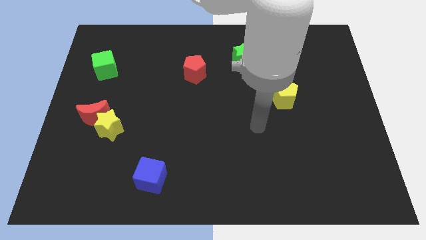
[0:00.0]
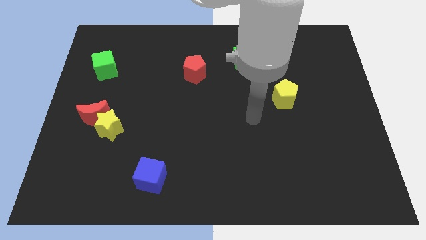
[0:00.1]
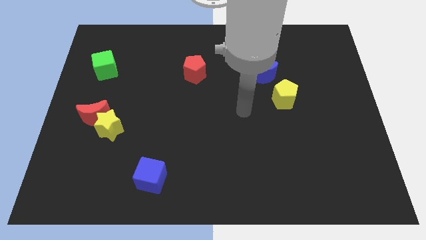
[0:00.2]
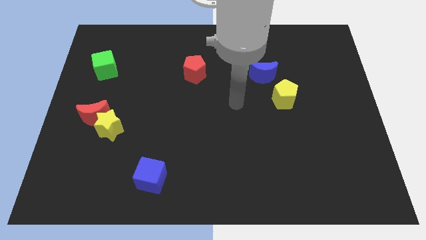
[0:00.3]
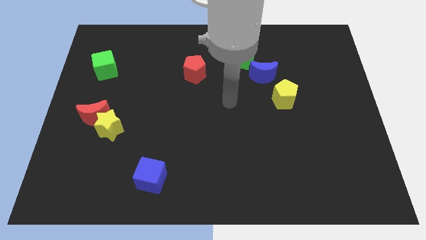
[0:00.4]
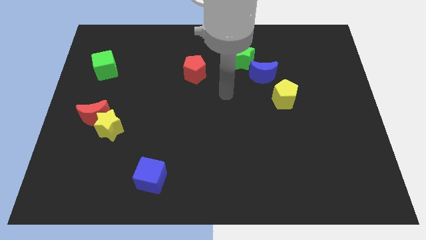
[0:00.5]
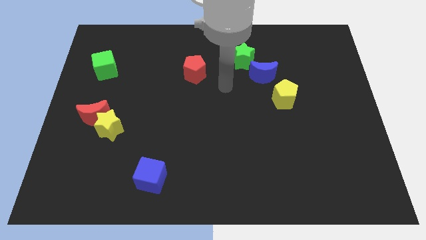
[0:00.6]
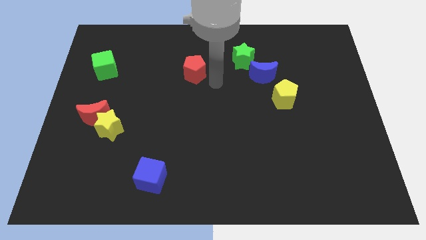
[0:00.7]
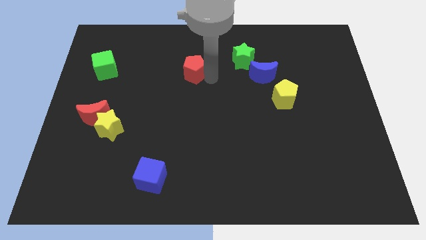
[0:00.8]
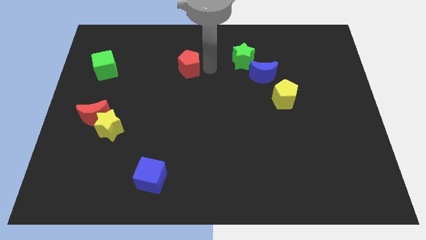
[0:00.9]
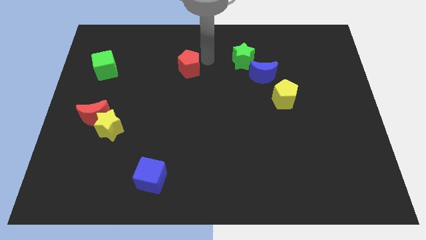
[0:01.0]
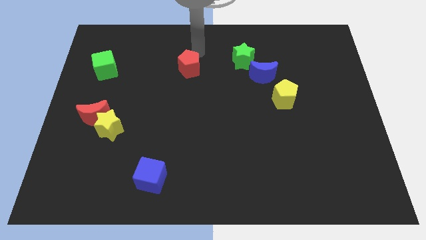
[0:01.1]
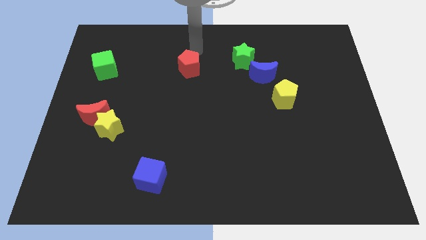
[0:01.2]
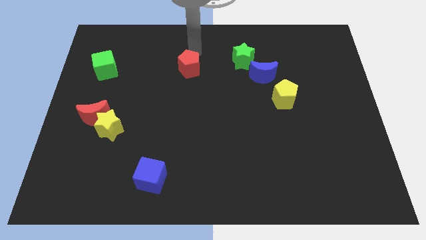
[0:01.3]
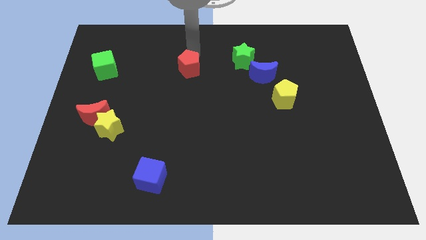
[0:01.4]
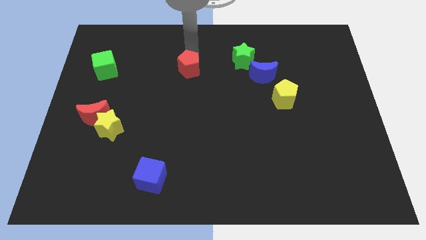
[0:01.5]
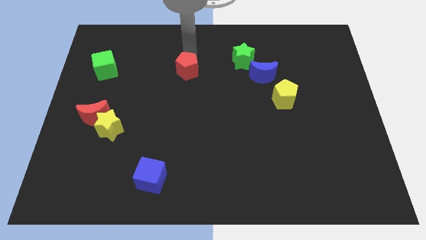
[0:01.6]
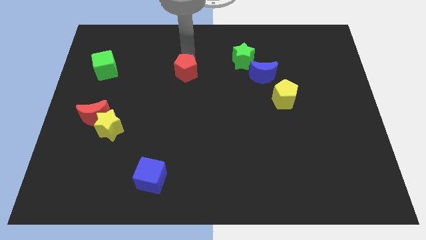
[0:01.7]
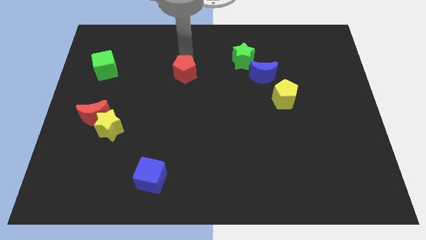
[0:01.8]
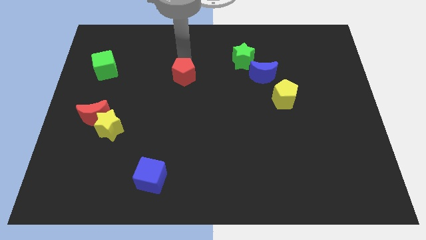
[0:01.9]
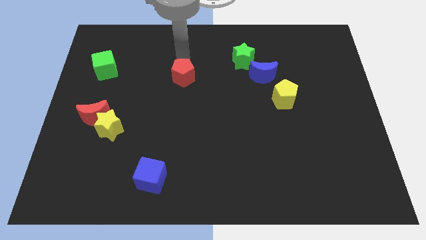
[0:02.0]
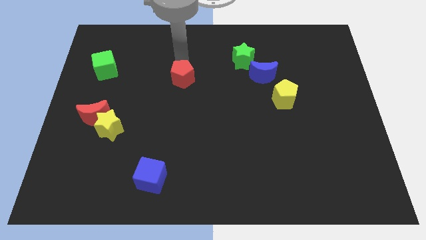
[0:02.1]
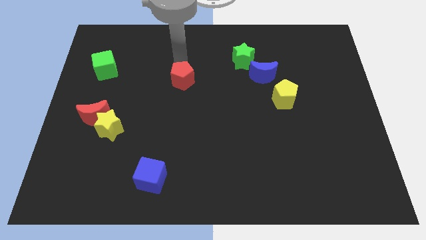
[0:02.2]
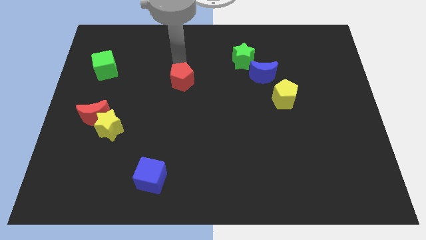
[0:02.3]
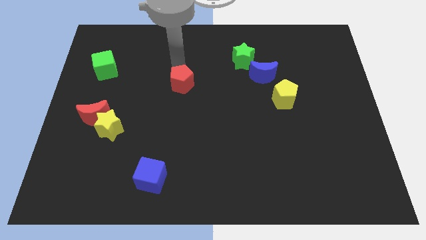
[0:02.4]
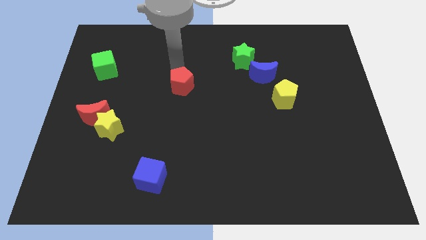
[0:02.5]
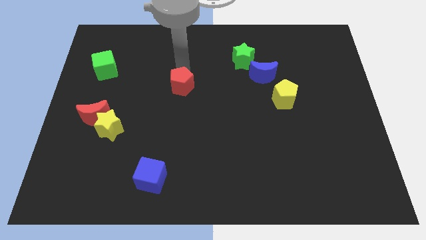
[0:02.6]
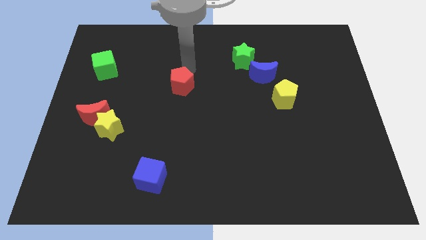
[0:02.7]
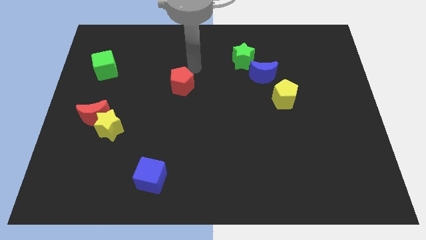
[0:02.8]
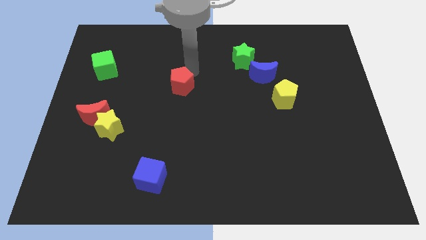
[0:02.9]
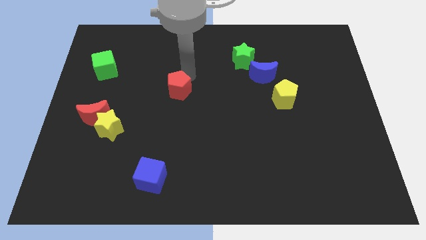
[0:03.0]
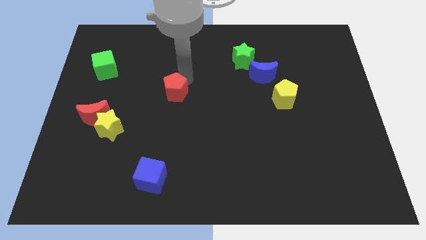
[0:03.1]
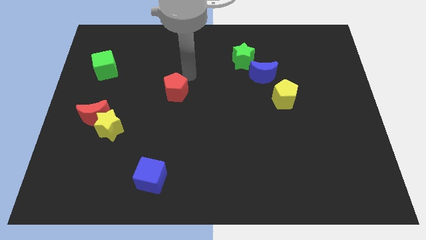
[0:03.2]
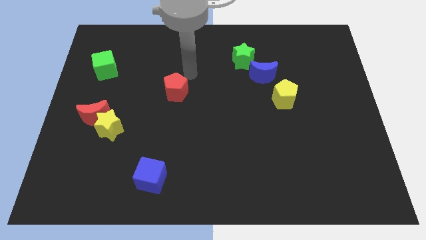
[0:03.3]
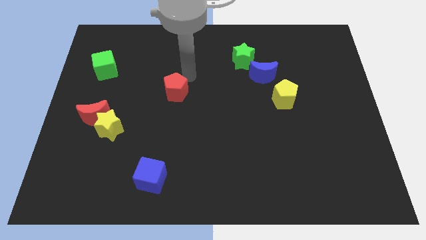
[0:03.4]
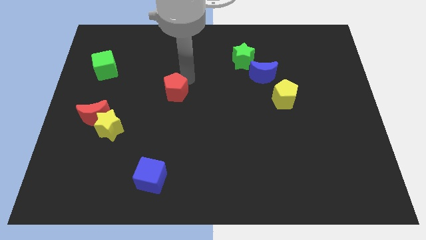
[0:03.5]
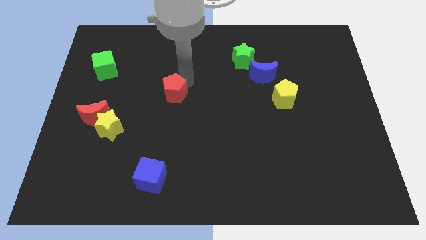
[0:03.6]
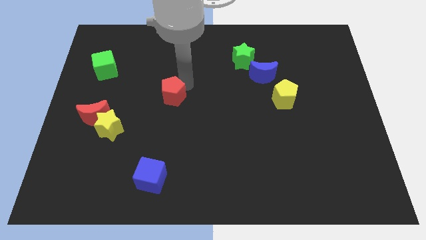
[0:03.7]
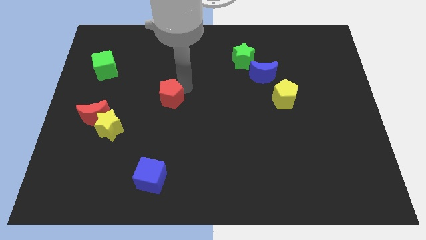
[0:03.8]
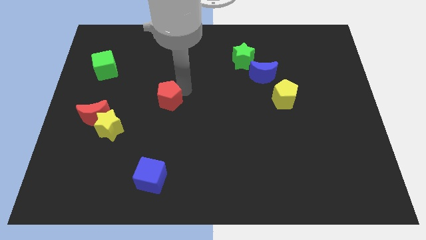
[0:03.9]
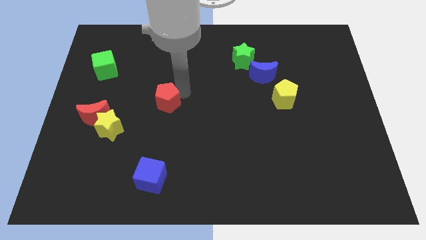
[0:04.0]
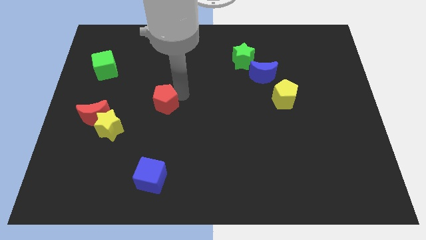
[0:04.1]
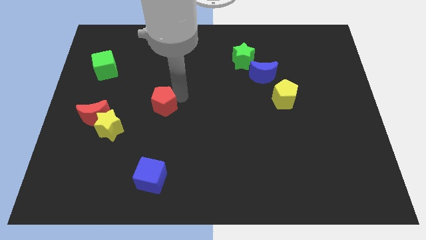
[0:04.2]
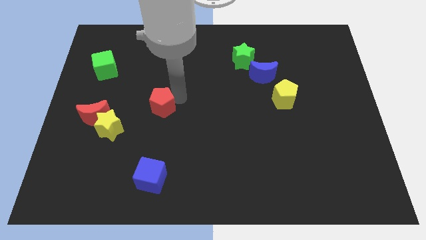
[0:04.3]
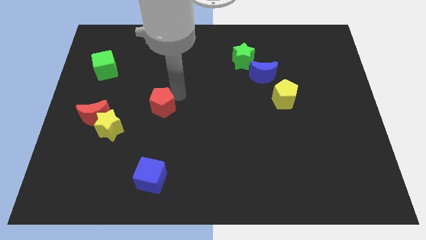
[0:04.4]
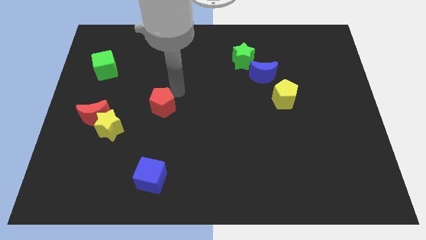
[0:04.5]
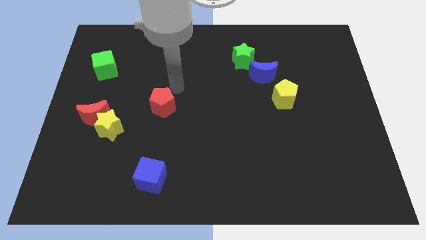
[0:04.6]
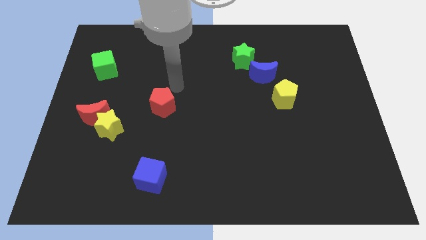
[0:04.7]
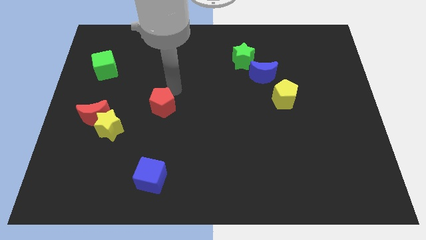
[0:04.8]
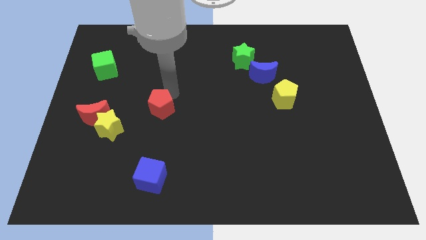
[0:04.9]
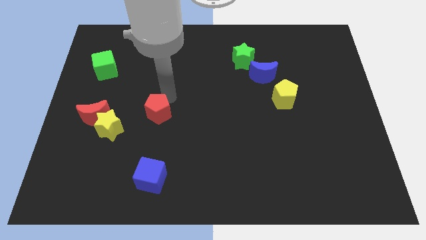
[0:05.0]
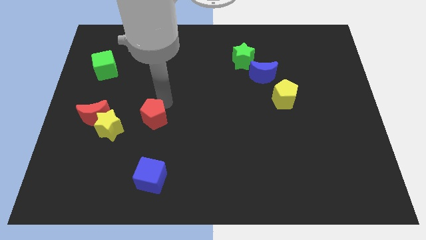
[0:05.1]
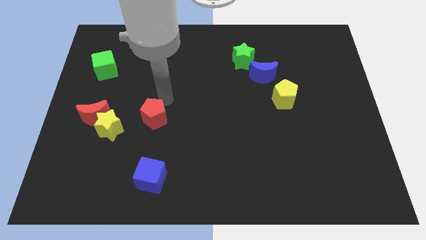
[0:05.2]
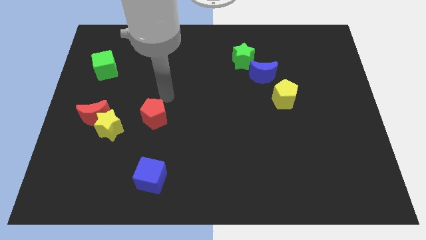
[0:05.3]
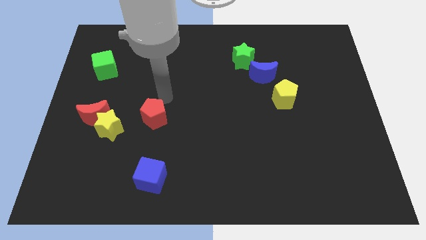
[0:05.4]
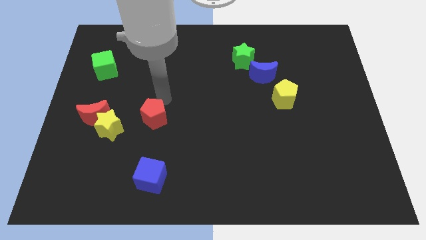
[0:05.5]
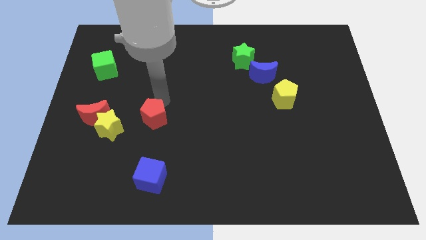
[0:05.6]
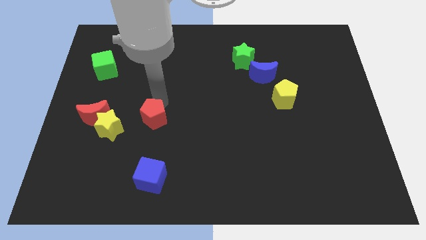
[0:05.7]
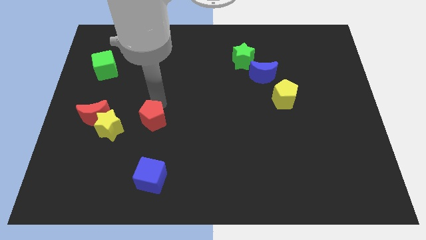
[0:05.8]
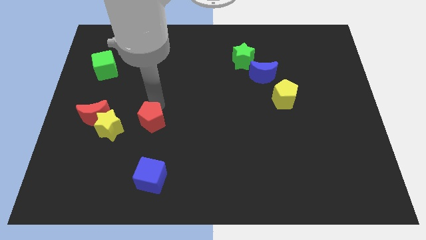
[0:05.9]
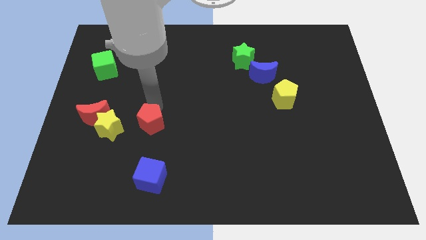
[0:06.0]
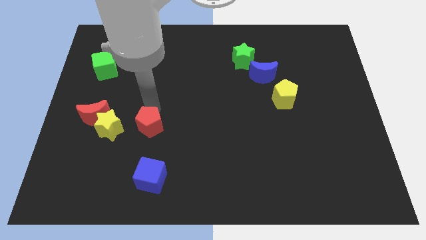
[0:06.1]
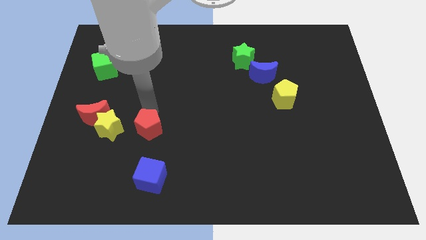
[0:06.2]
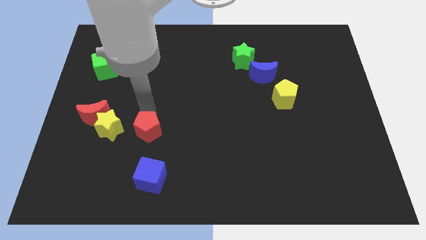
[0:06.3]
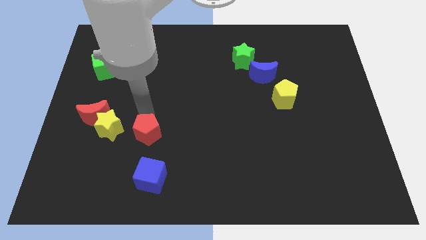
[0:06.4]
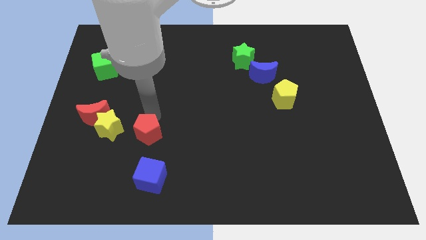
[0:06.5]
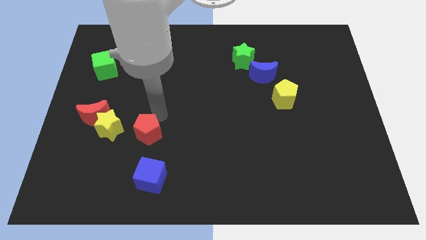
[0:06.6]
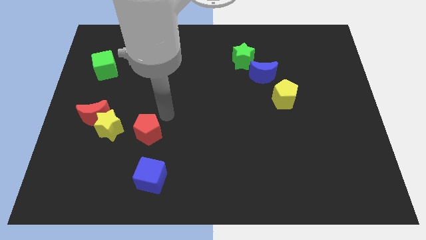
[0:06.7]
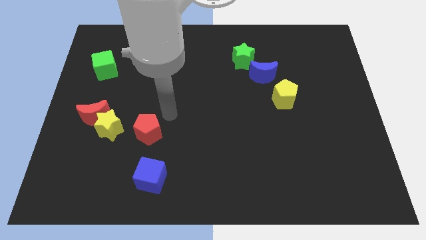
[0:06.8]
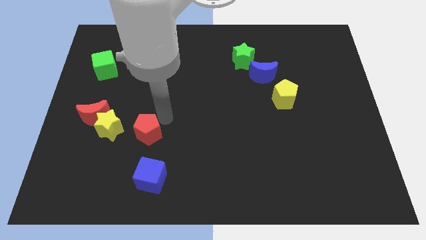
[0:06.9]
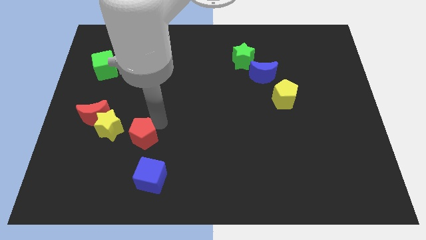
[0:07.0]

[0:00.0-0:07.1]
push the red pentagon to the bottom right of the yellow star
